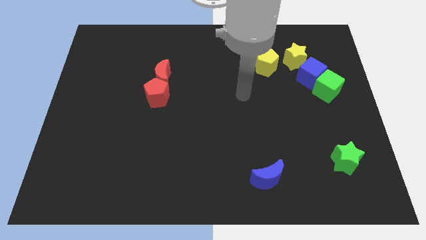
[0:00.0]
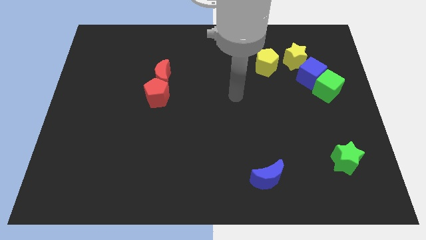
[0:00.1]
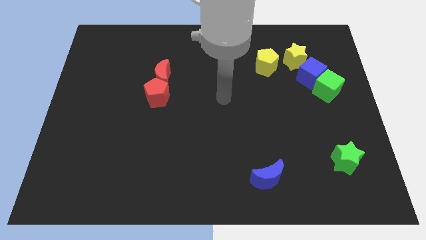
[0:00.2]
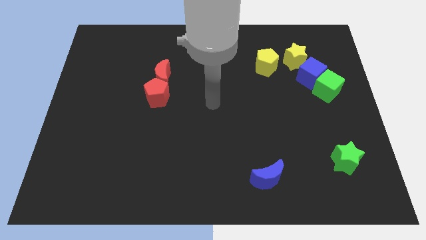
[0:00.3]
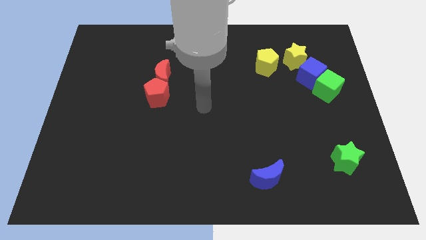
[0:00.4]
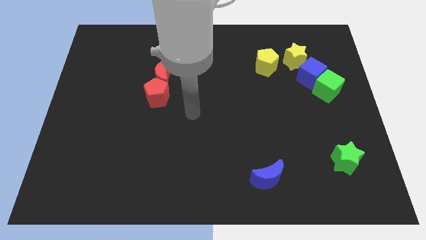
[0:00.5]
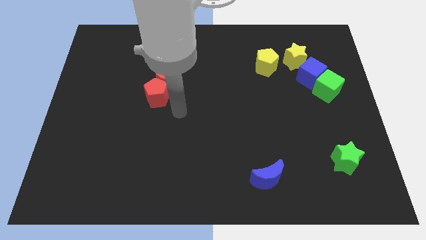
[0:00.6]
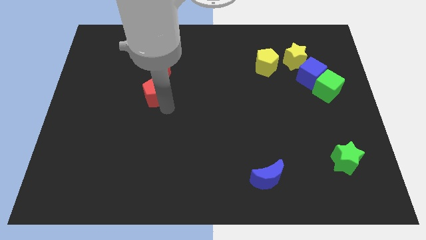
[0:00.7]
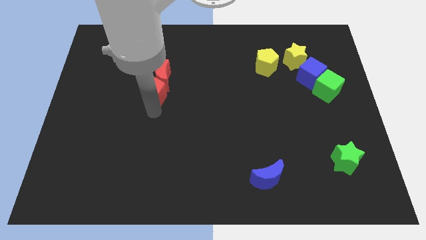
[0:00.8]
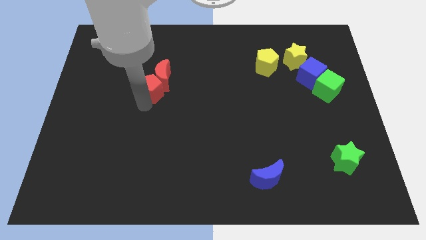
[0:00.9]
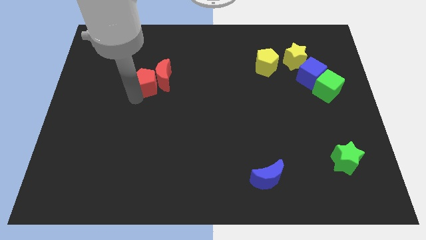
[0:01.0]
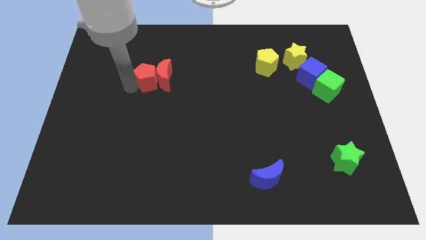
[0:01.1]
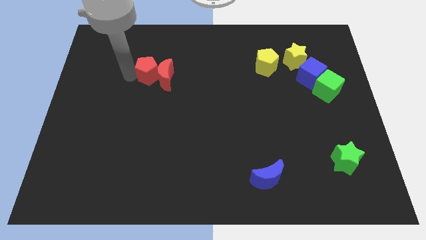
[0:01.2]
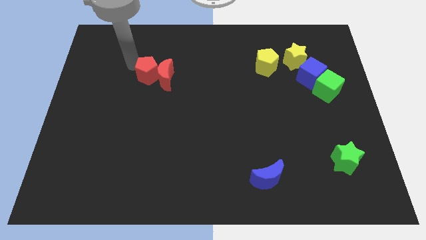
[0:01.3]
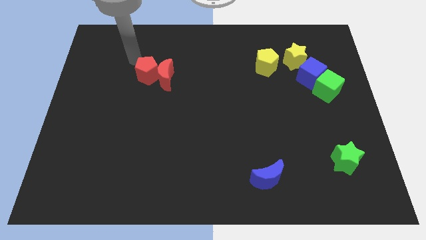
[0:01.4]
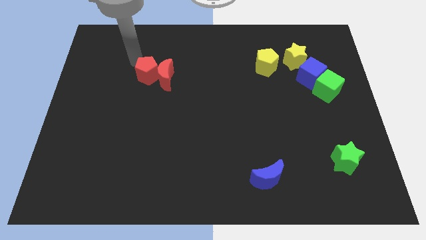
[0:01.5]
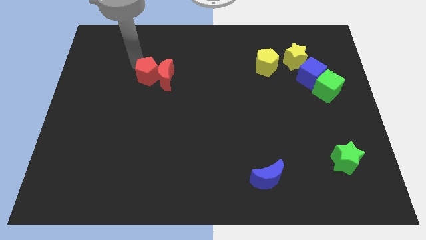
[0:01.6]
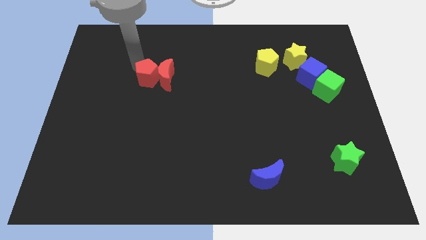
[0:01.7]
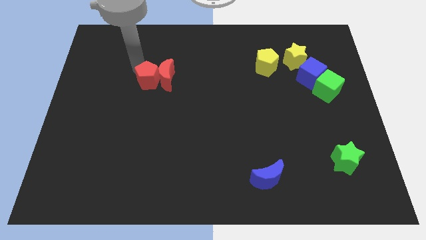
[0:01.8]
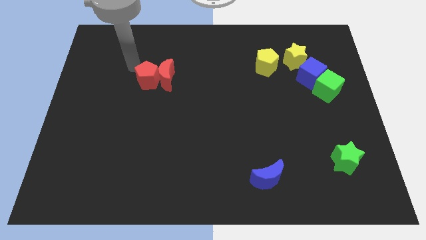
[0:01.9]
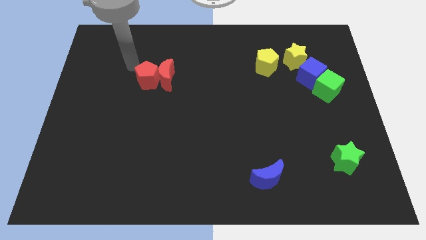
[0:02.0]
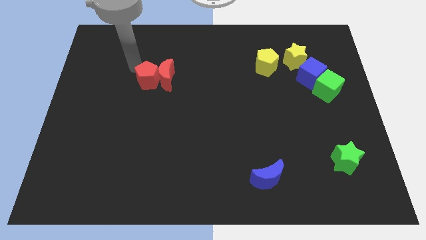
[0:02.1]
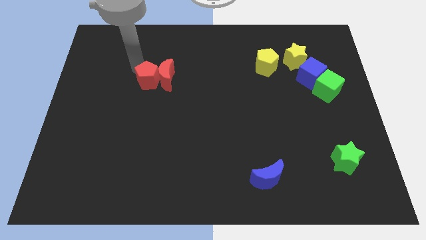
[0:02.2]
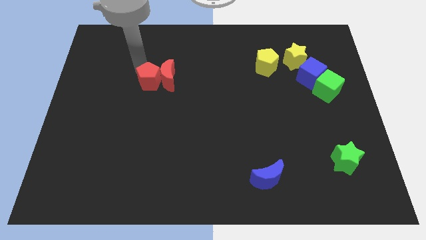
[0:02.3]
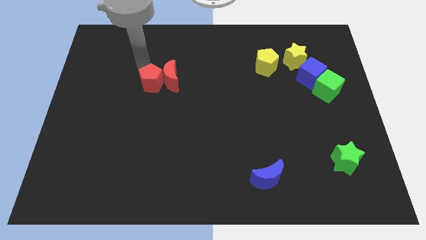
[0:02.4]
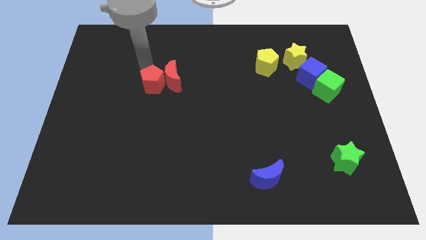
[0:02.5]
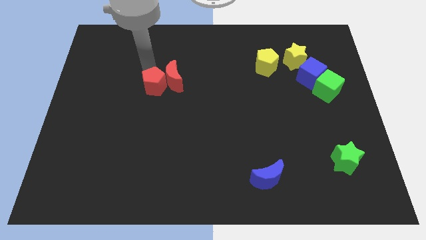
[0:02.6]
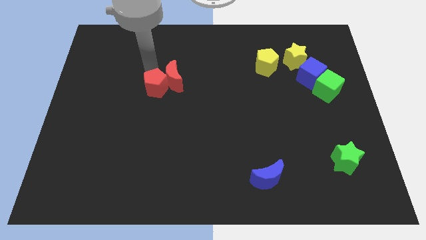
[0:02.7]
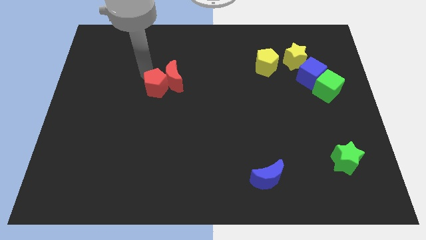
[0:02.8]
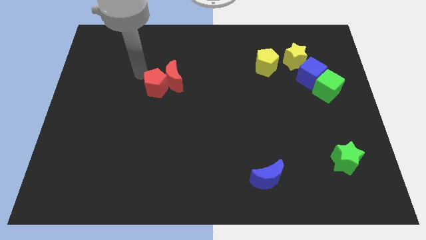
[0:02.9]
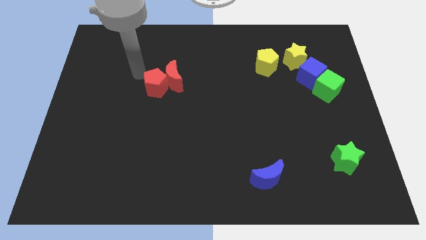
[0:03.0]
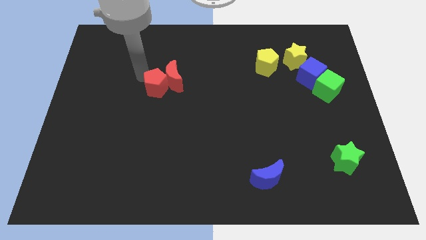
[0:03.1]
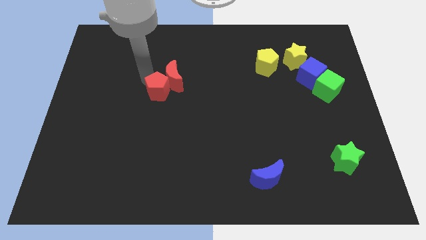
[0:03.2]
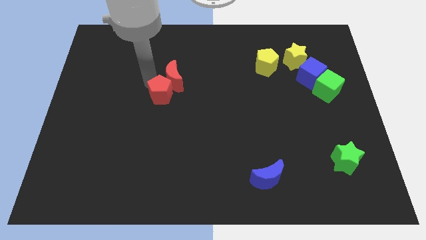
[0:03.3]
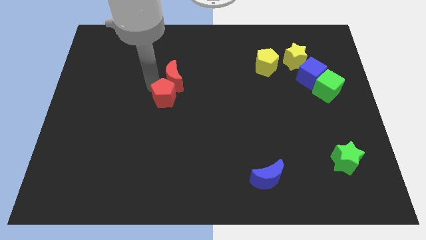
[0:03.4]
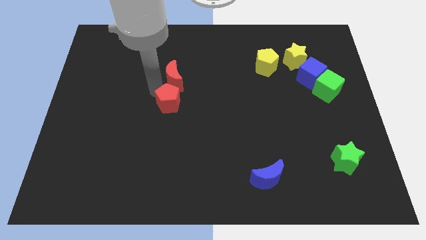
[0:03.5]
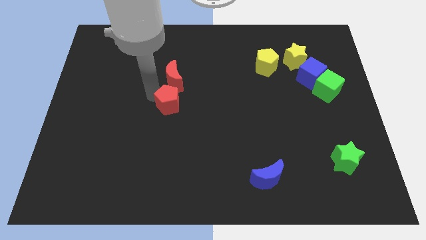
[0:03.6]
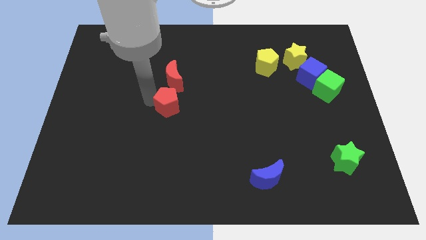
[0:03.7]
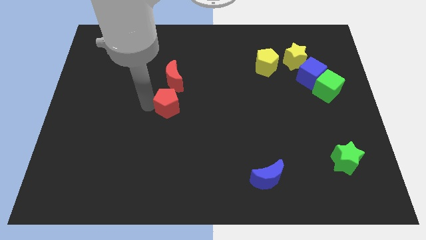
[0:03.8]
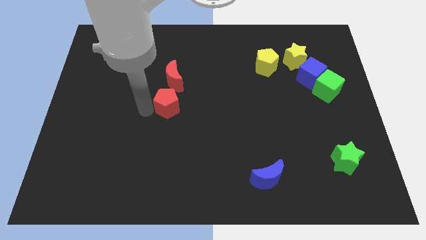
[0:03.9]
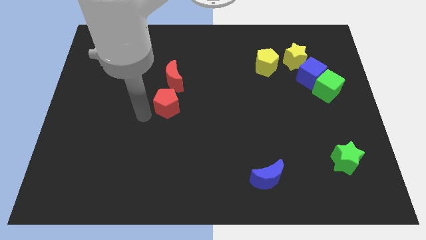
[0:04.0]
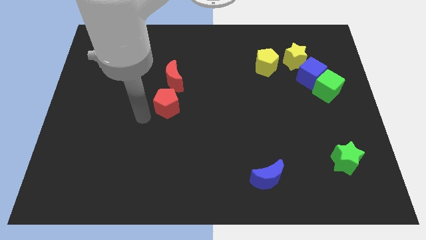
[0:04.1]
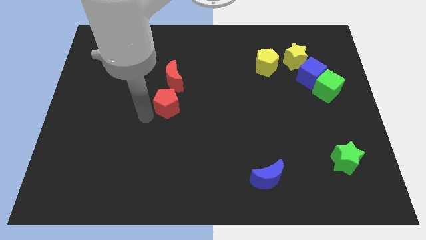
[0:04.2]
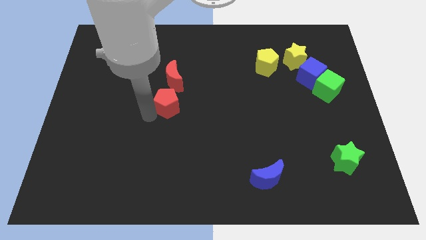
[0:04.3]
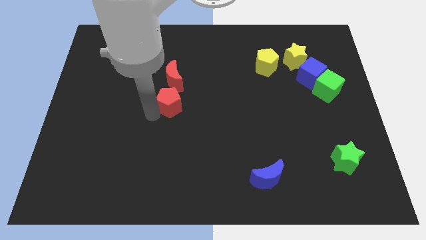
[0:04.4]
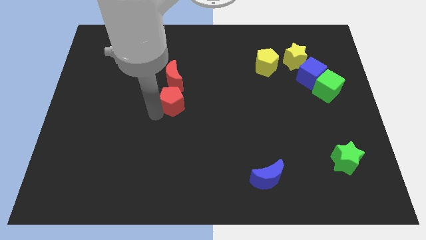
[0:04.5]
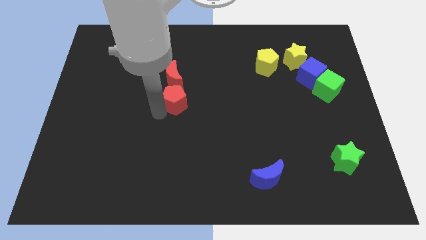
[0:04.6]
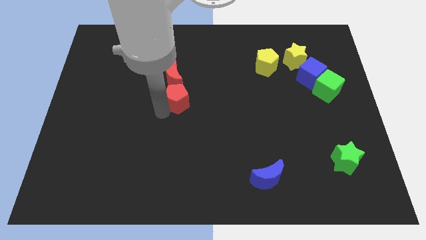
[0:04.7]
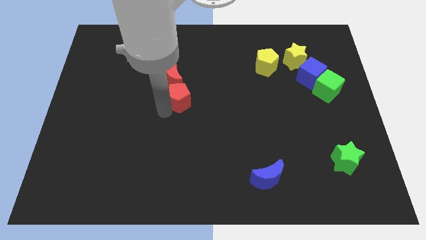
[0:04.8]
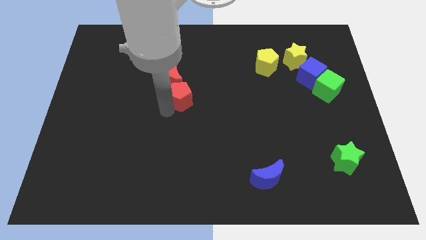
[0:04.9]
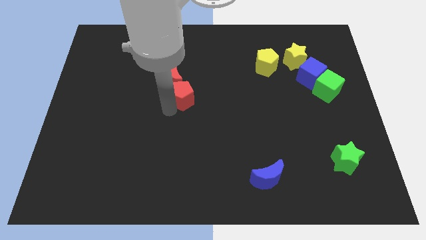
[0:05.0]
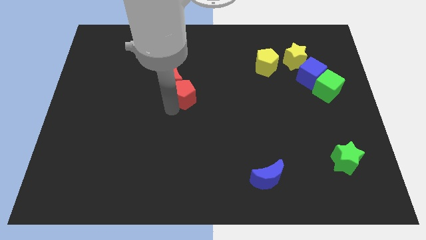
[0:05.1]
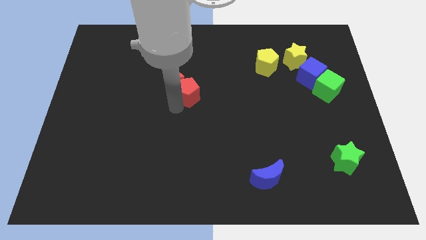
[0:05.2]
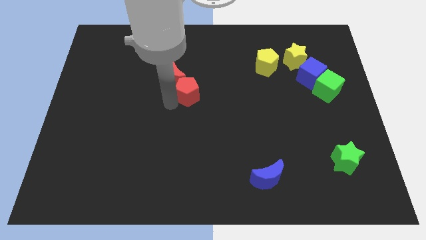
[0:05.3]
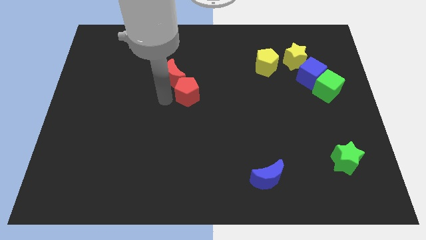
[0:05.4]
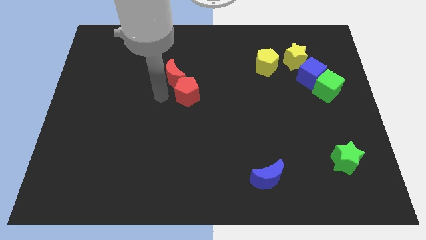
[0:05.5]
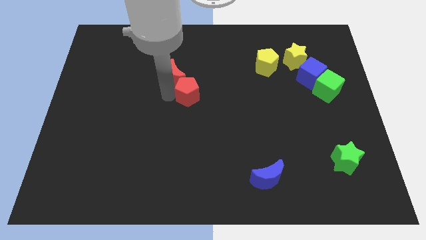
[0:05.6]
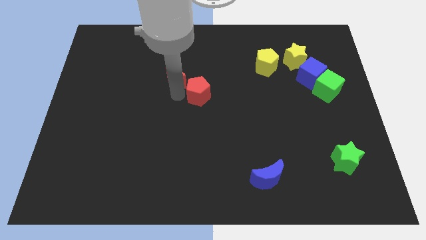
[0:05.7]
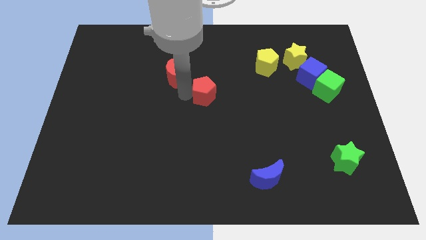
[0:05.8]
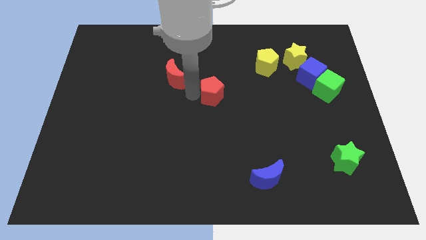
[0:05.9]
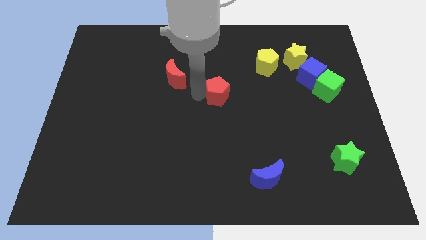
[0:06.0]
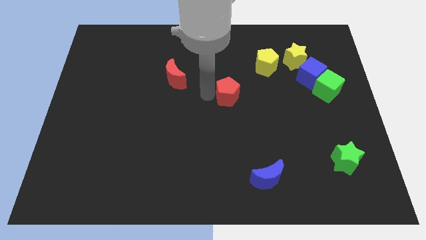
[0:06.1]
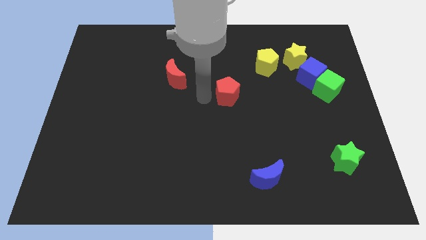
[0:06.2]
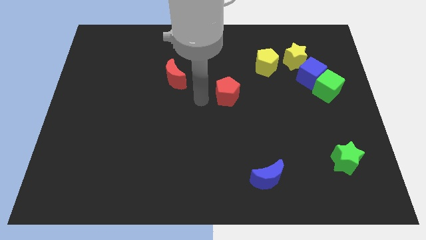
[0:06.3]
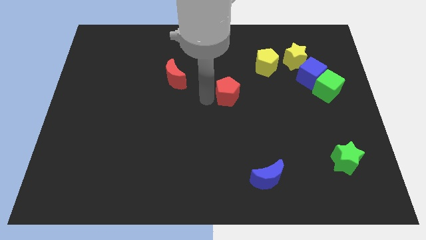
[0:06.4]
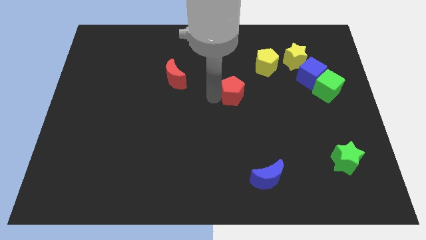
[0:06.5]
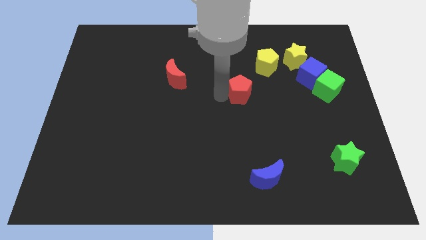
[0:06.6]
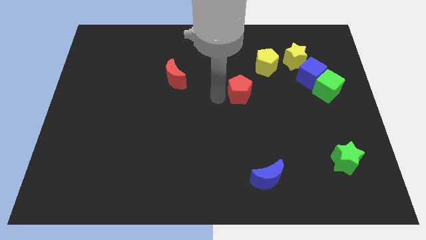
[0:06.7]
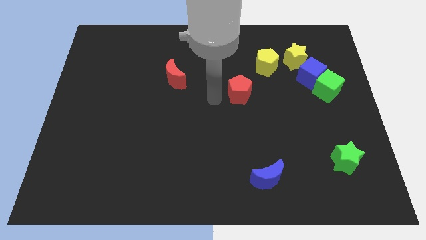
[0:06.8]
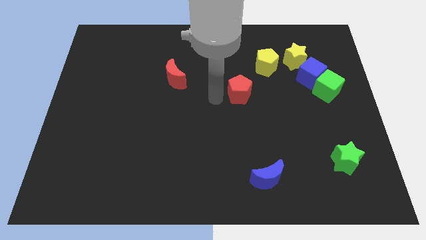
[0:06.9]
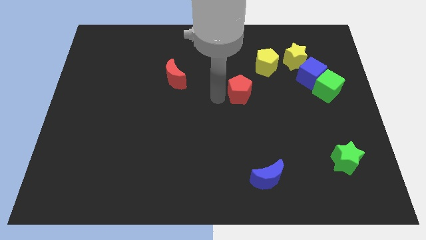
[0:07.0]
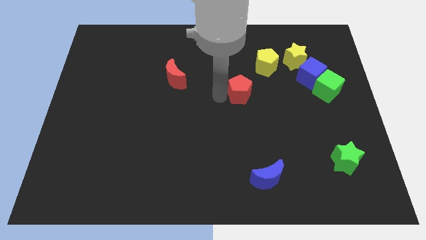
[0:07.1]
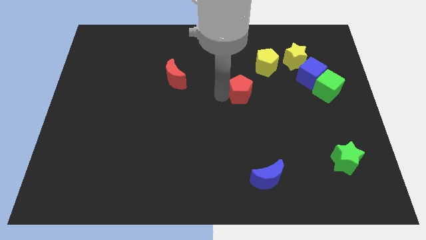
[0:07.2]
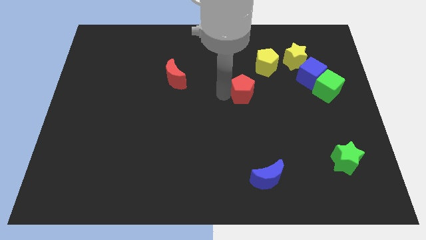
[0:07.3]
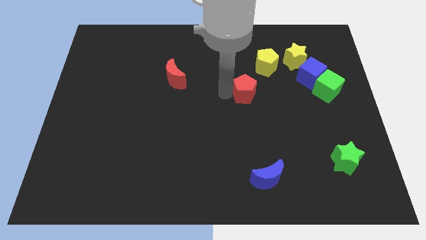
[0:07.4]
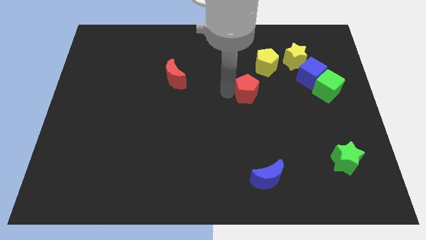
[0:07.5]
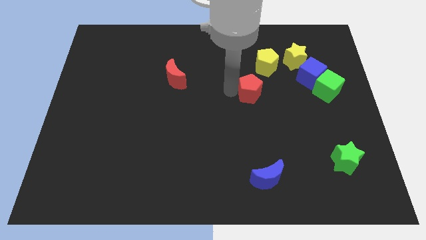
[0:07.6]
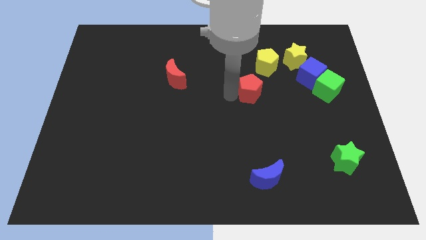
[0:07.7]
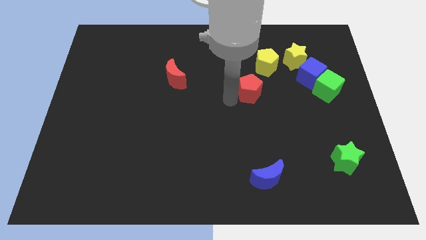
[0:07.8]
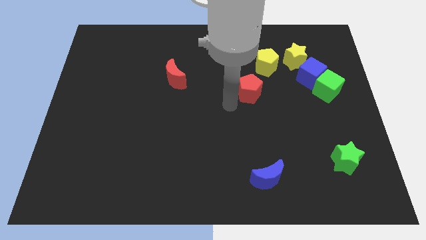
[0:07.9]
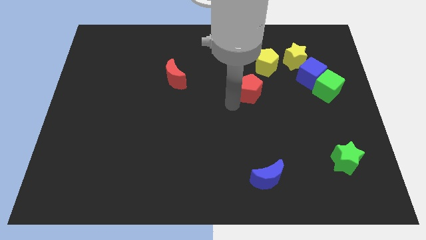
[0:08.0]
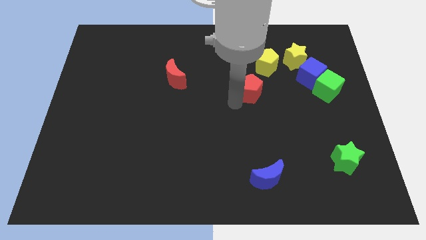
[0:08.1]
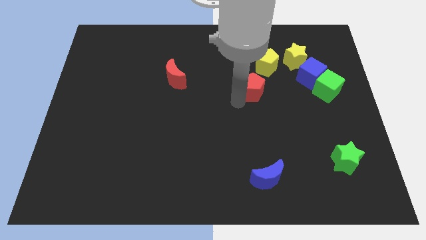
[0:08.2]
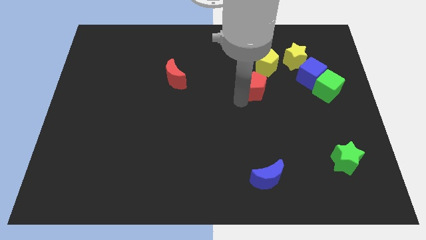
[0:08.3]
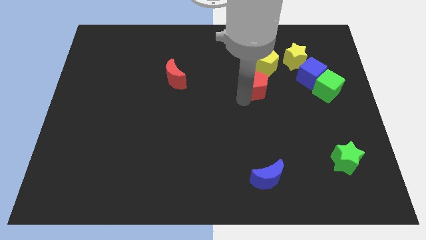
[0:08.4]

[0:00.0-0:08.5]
push the red pentagon just left of the blue cube
